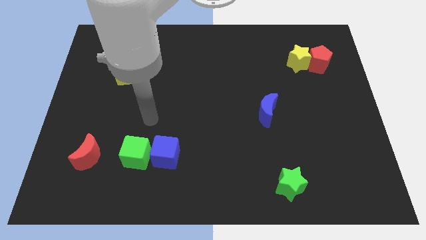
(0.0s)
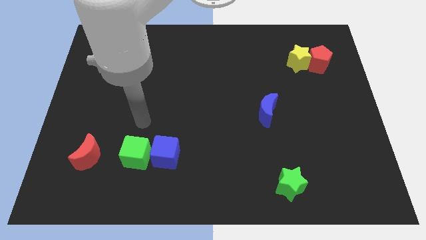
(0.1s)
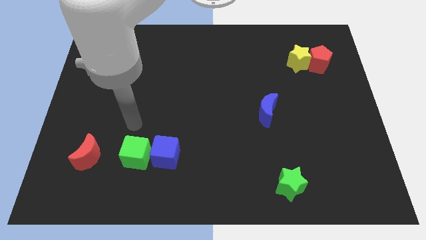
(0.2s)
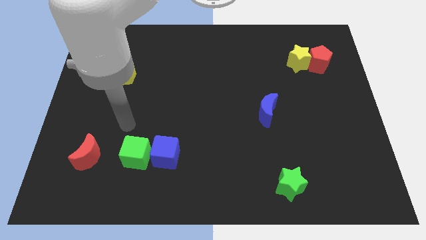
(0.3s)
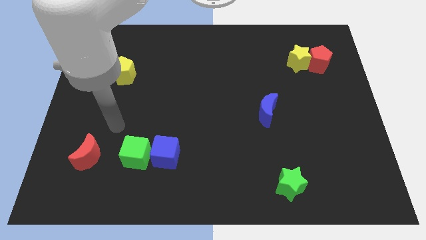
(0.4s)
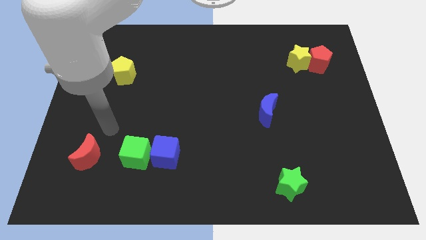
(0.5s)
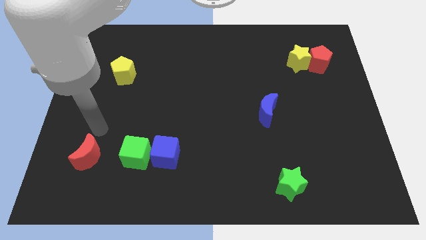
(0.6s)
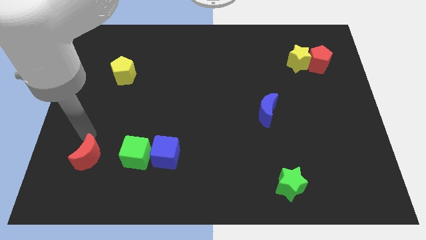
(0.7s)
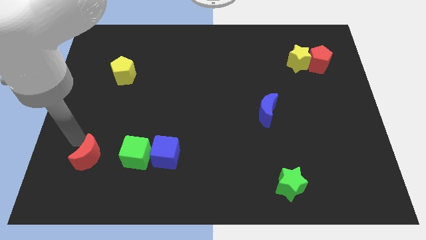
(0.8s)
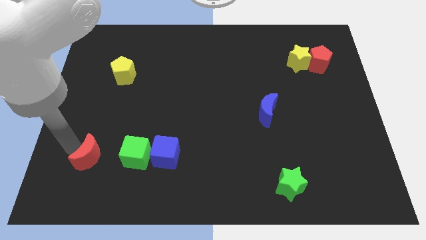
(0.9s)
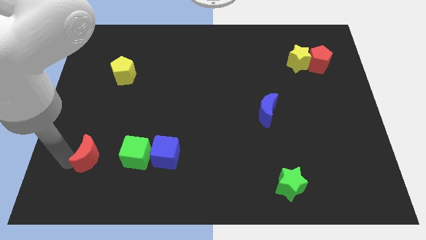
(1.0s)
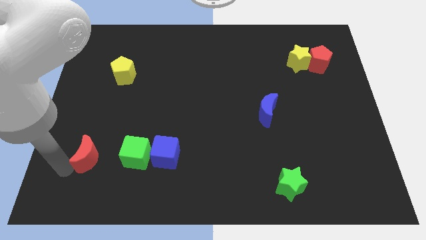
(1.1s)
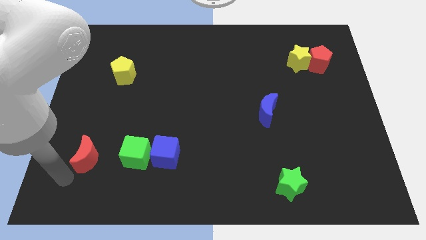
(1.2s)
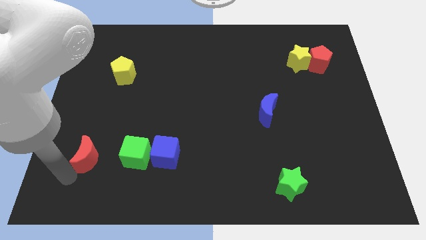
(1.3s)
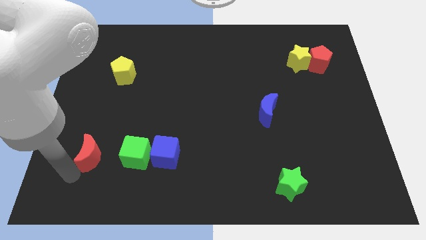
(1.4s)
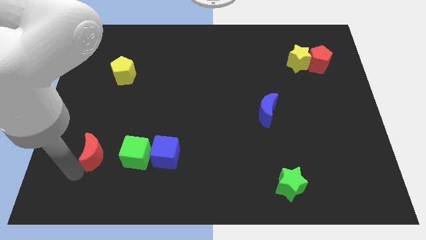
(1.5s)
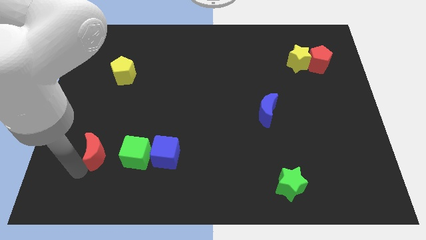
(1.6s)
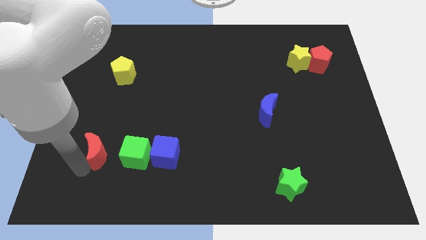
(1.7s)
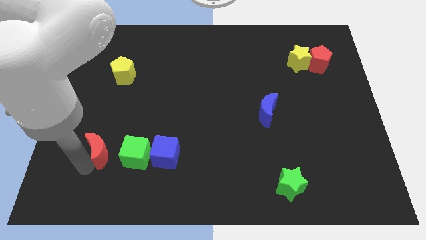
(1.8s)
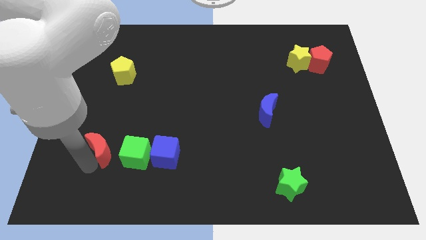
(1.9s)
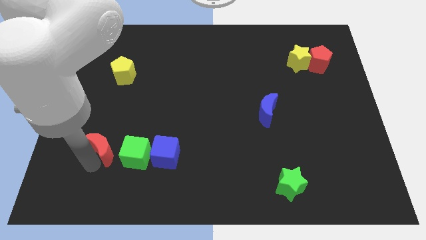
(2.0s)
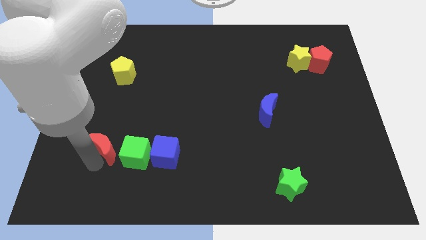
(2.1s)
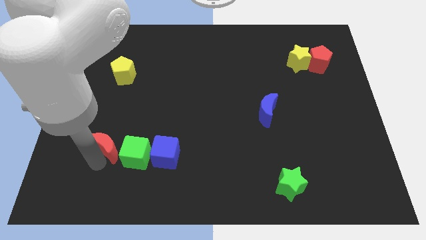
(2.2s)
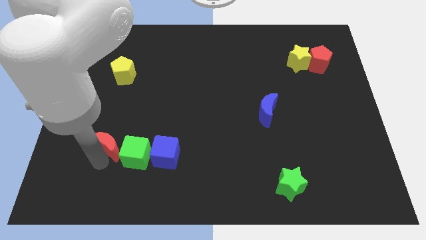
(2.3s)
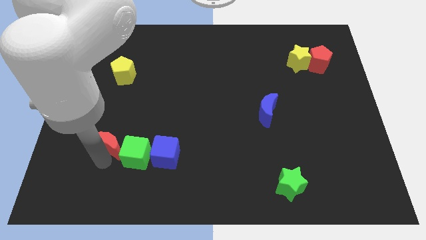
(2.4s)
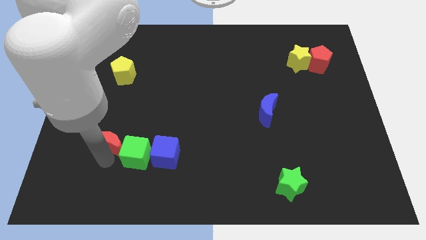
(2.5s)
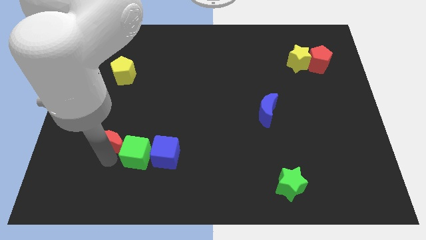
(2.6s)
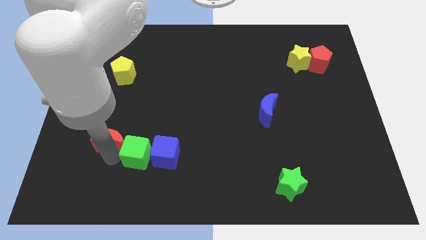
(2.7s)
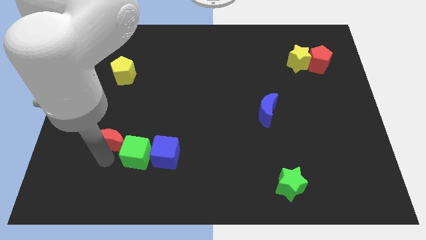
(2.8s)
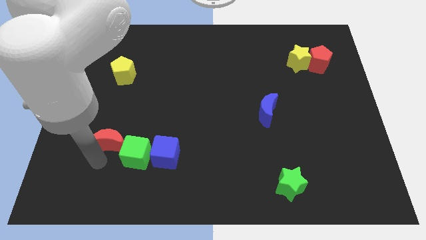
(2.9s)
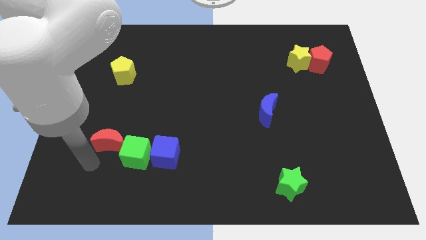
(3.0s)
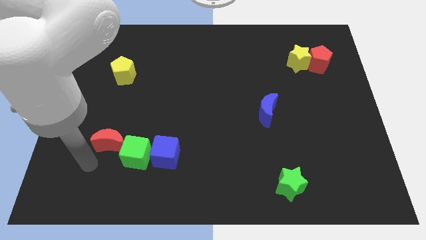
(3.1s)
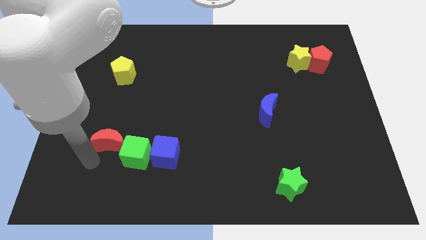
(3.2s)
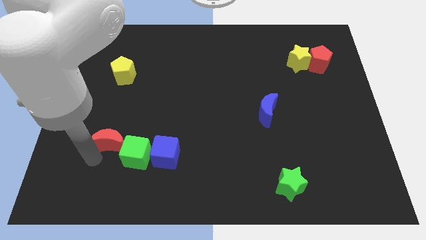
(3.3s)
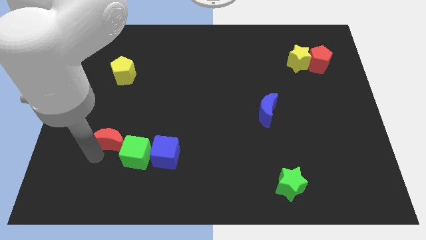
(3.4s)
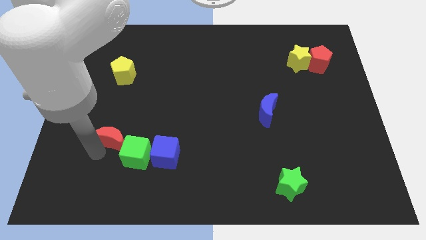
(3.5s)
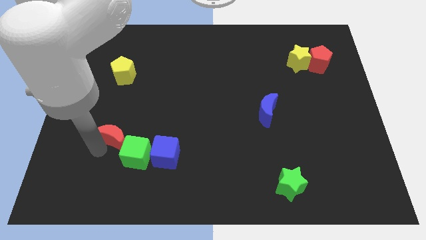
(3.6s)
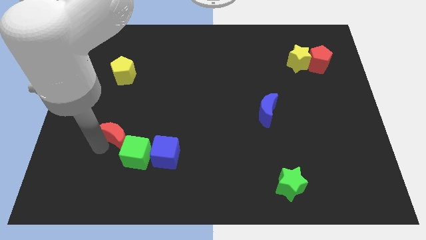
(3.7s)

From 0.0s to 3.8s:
slide the red moon a little bit upwards and right

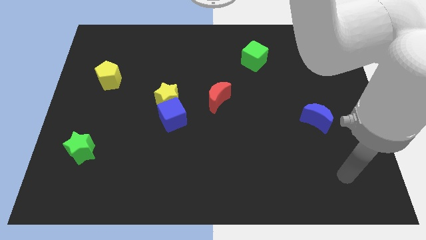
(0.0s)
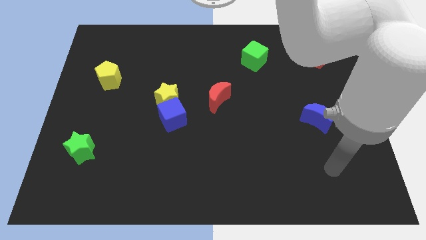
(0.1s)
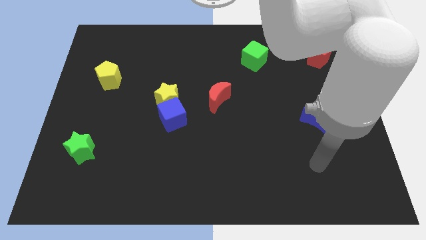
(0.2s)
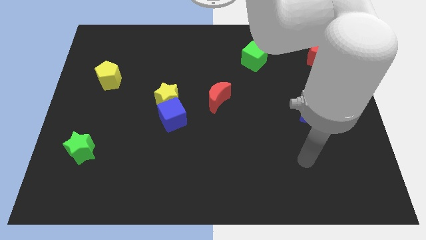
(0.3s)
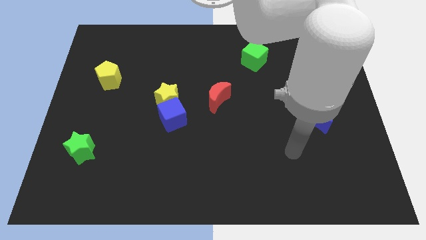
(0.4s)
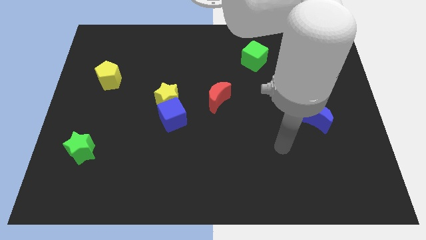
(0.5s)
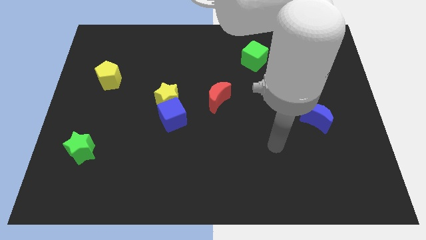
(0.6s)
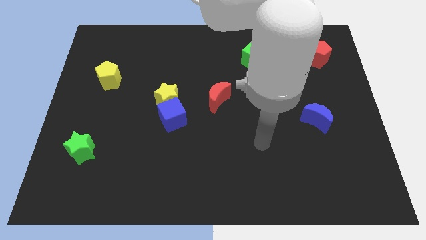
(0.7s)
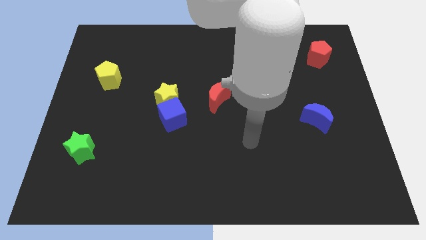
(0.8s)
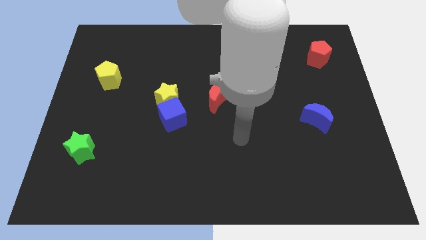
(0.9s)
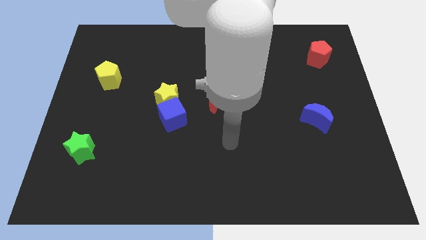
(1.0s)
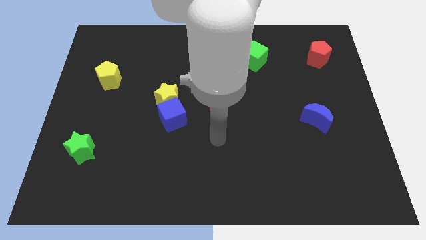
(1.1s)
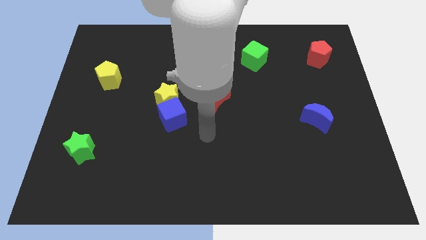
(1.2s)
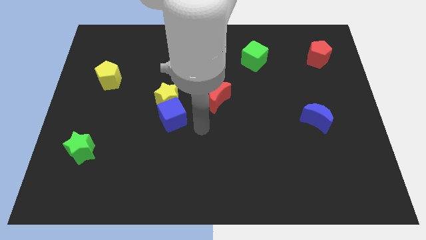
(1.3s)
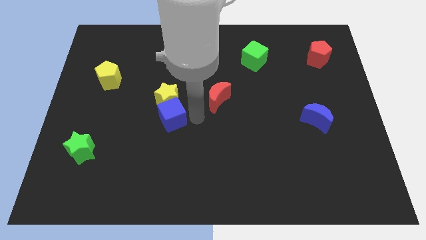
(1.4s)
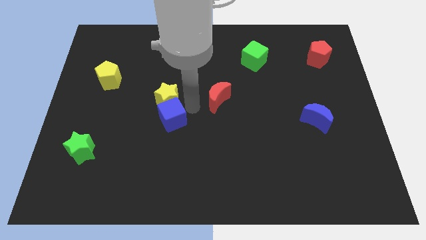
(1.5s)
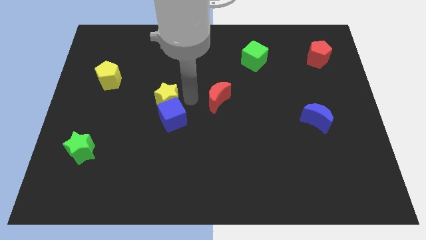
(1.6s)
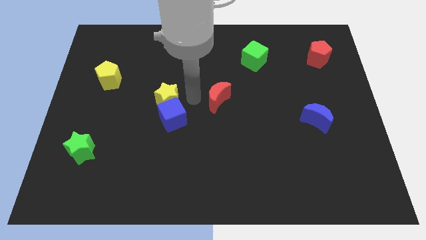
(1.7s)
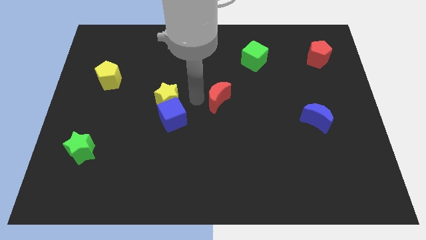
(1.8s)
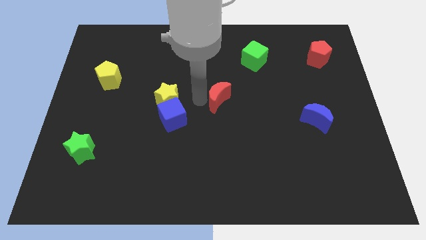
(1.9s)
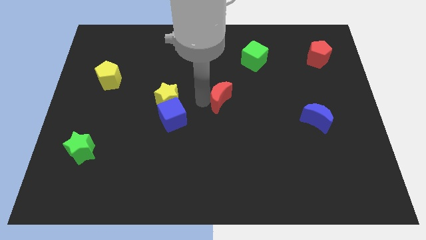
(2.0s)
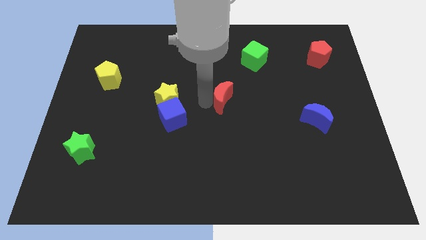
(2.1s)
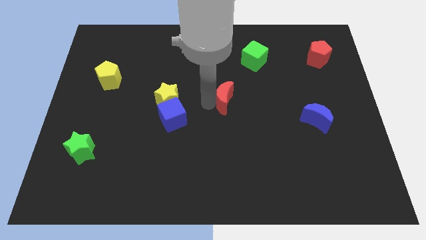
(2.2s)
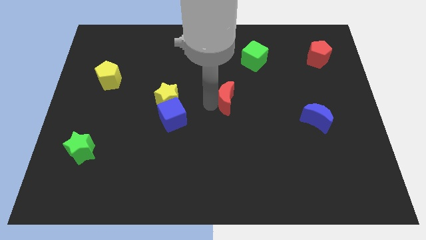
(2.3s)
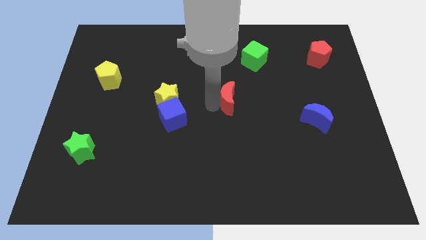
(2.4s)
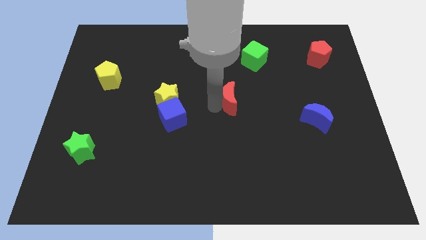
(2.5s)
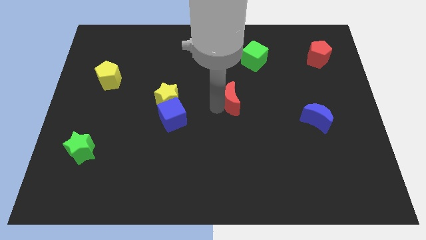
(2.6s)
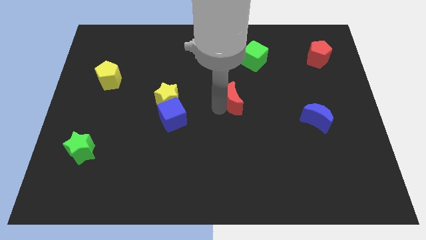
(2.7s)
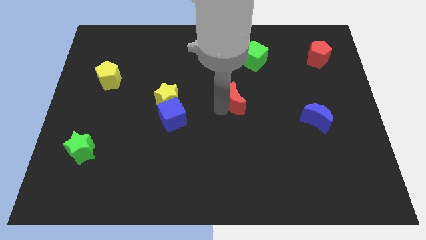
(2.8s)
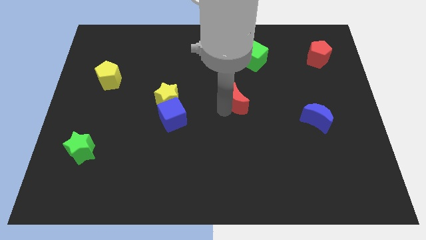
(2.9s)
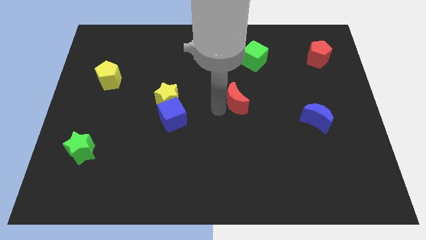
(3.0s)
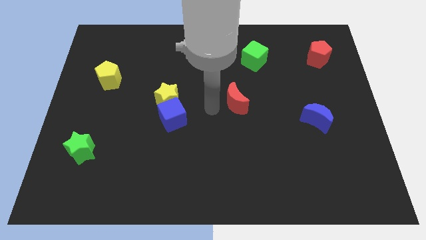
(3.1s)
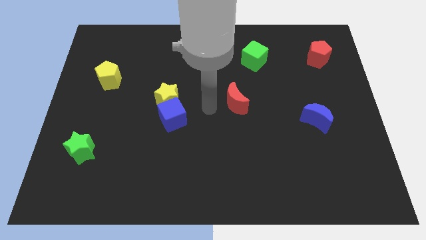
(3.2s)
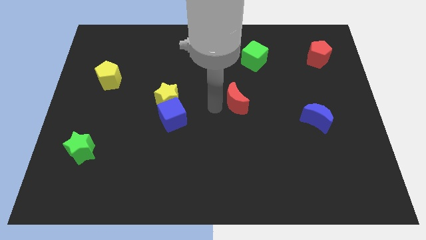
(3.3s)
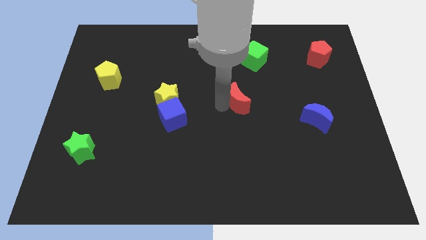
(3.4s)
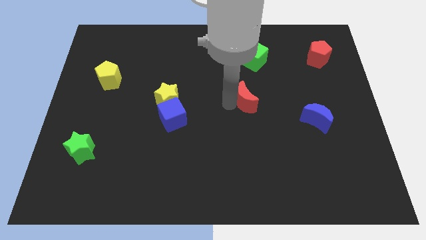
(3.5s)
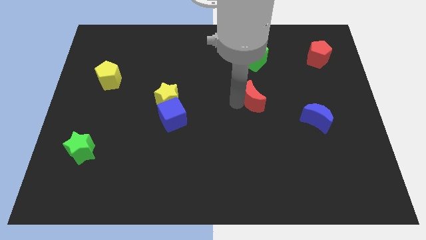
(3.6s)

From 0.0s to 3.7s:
move the red moon right slightly

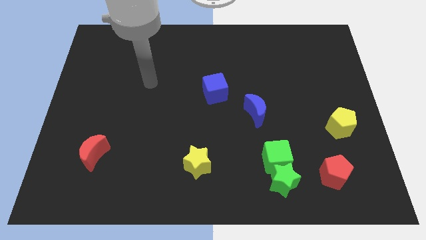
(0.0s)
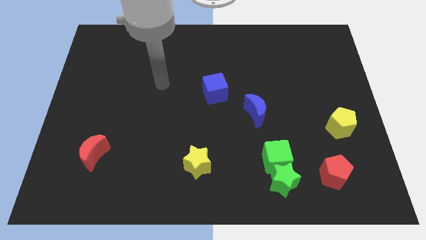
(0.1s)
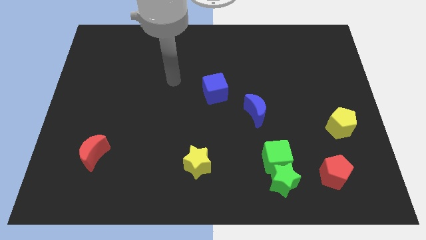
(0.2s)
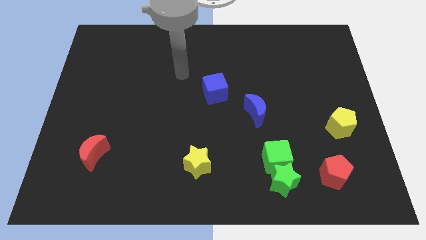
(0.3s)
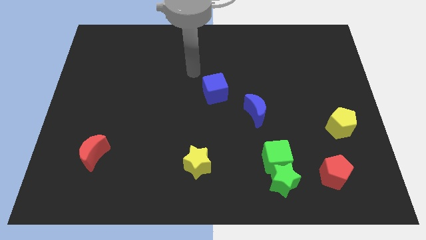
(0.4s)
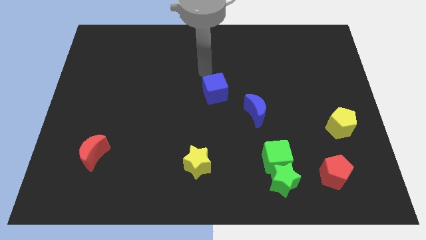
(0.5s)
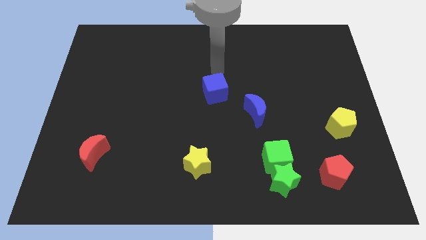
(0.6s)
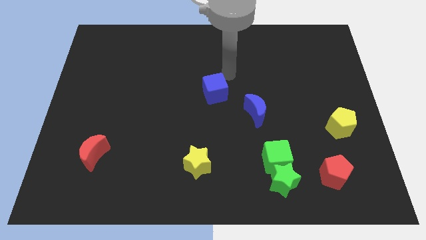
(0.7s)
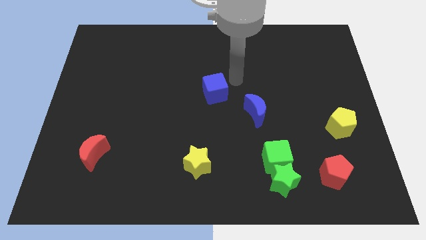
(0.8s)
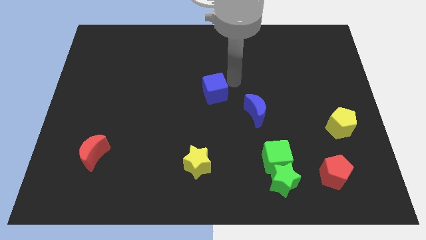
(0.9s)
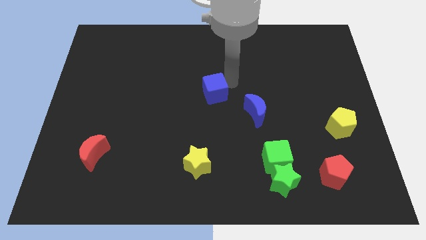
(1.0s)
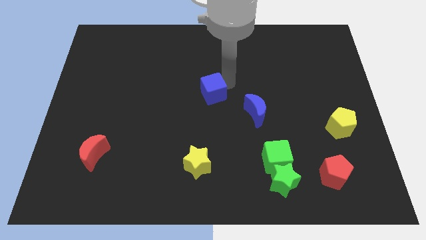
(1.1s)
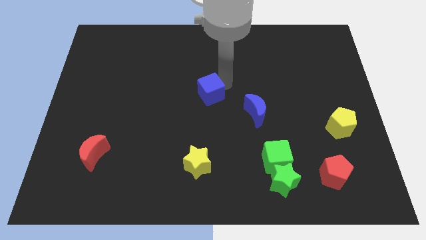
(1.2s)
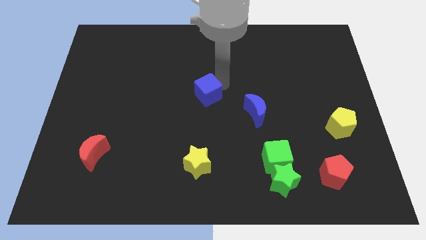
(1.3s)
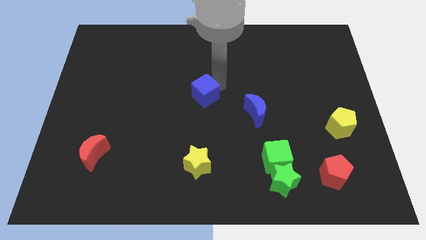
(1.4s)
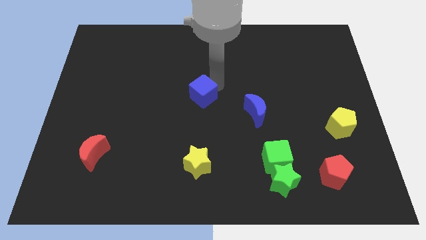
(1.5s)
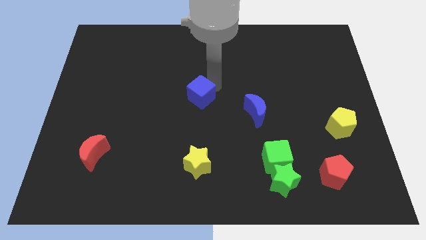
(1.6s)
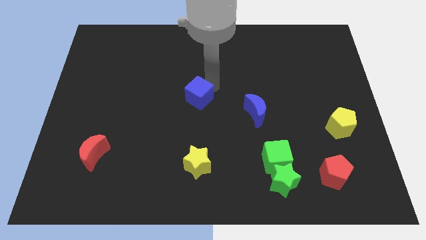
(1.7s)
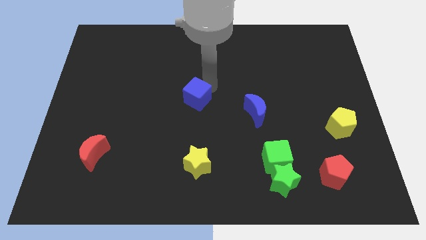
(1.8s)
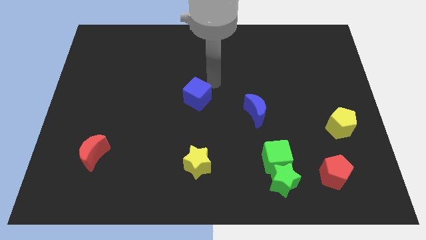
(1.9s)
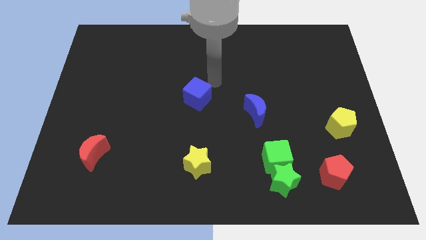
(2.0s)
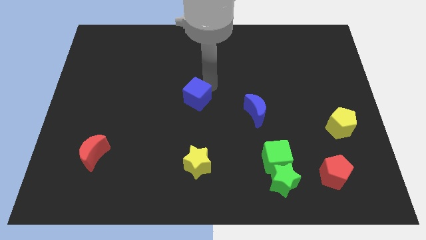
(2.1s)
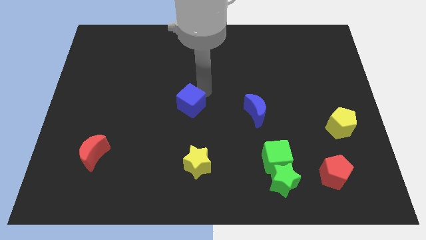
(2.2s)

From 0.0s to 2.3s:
slightly push the blue cube down and then to the left
